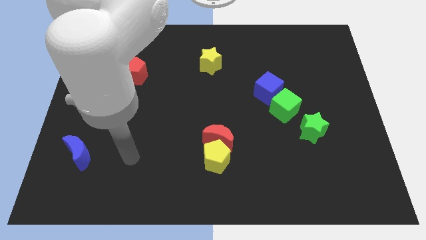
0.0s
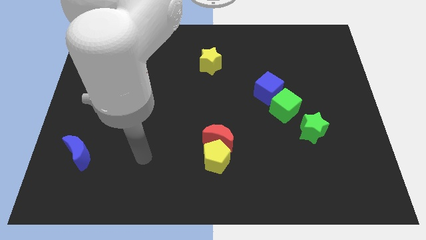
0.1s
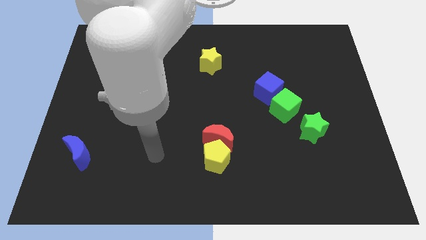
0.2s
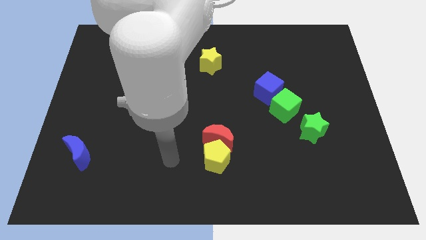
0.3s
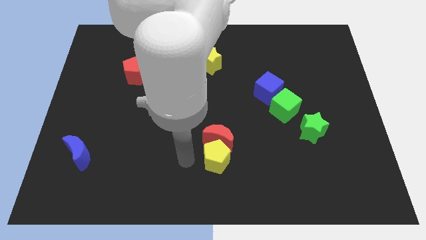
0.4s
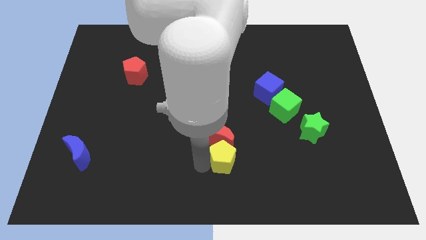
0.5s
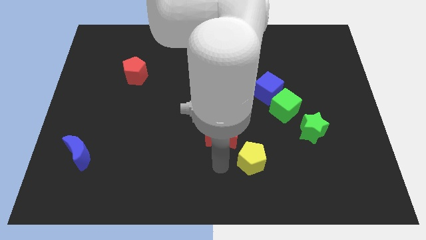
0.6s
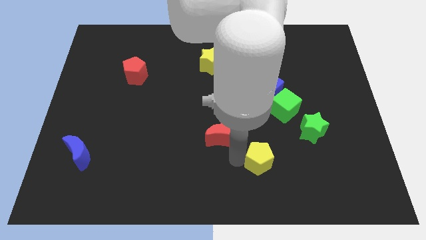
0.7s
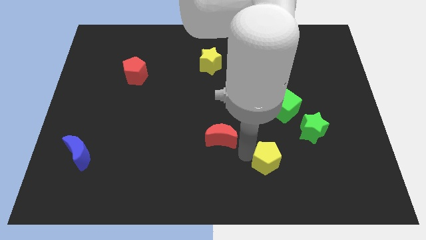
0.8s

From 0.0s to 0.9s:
separate the red moon from the yellow pentagon

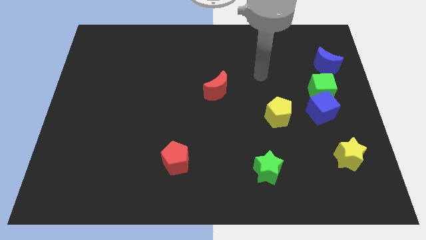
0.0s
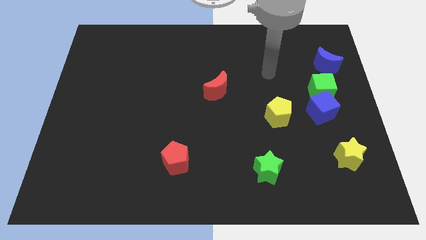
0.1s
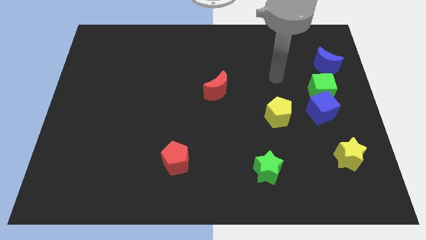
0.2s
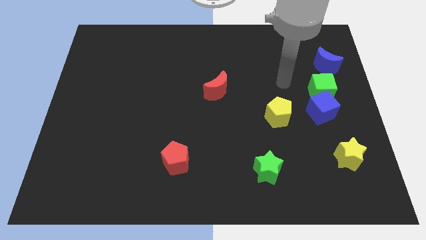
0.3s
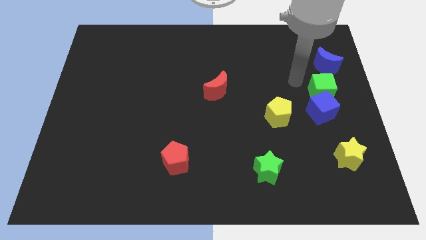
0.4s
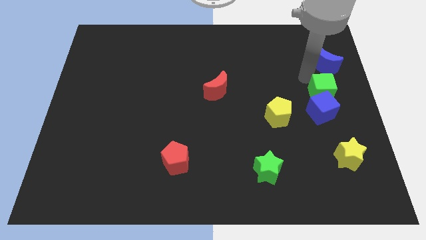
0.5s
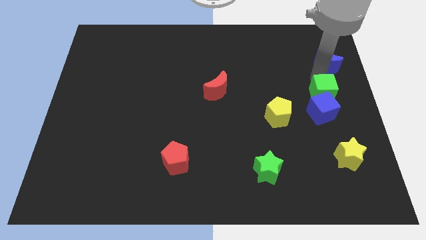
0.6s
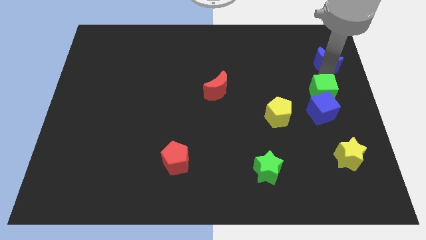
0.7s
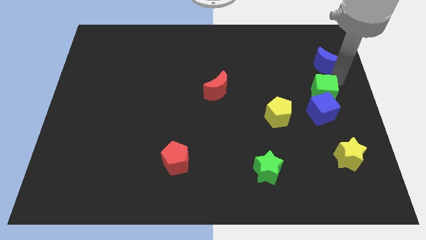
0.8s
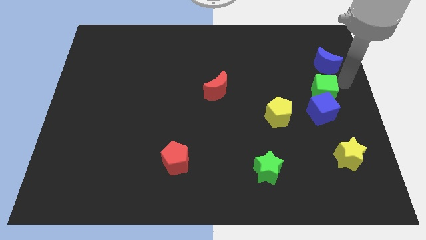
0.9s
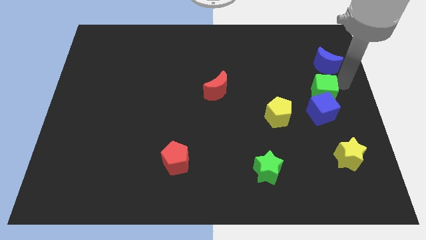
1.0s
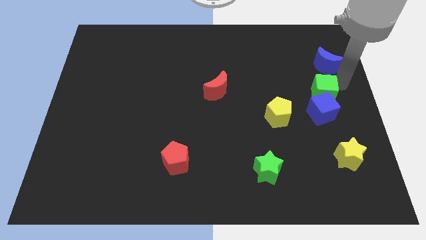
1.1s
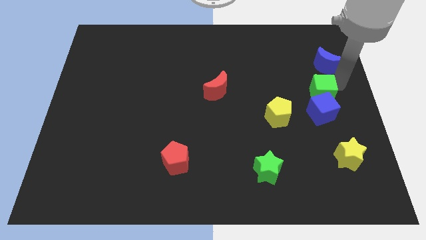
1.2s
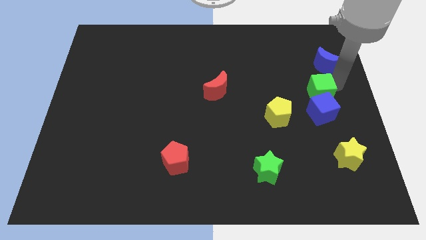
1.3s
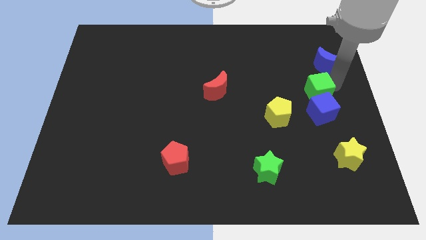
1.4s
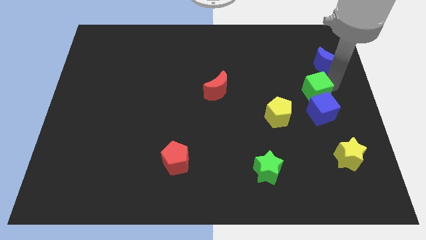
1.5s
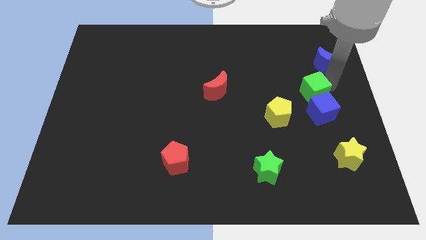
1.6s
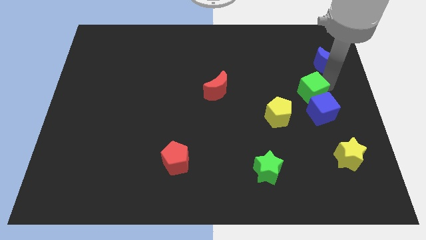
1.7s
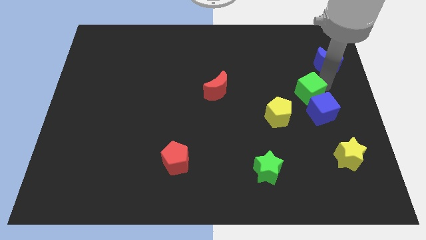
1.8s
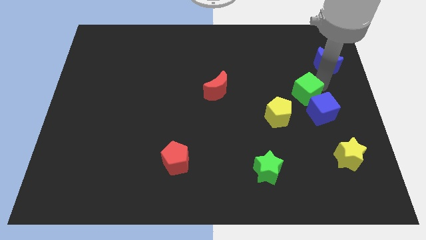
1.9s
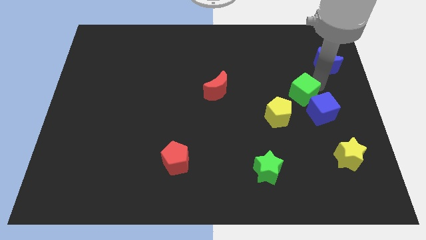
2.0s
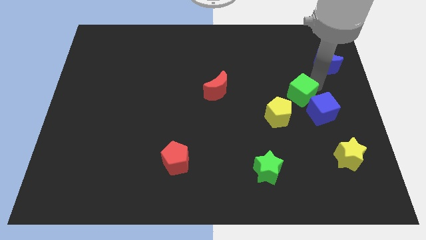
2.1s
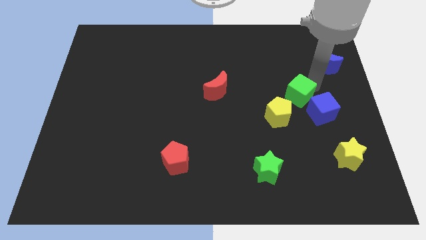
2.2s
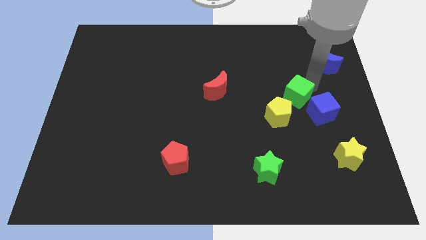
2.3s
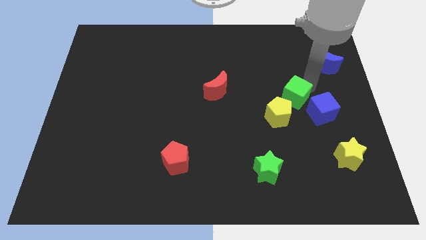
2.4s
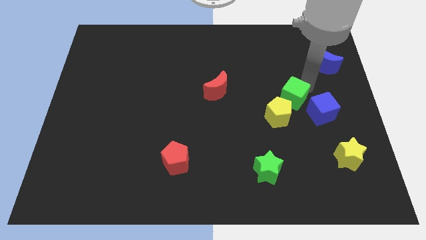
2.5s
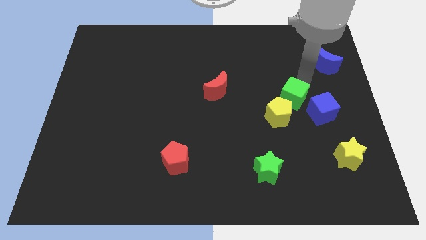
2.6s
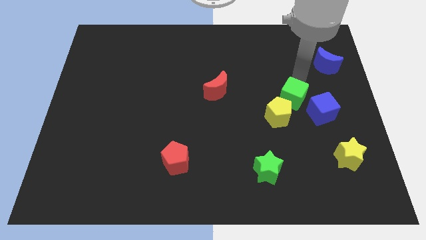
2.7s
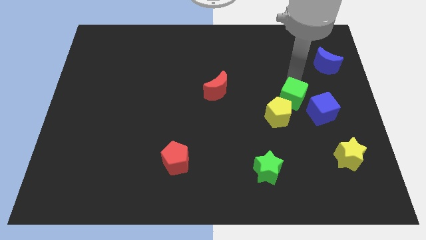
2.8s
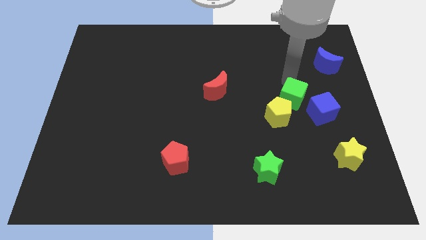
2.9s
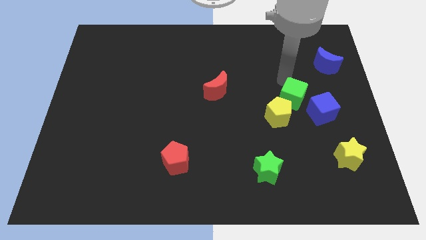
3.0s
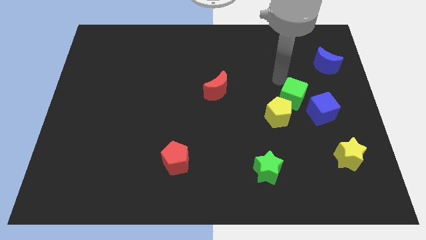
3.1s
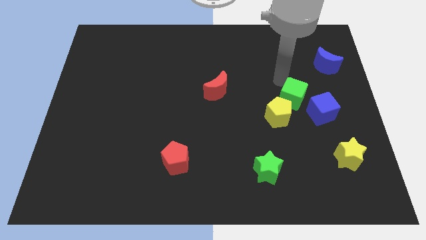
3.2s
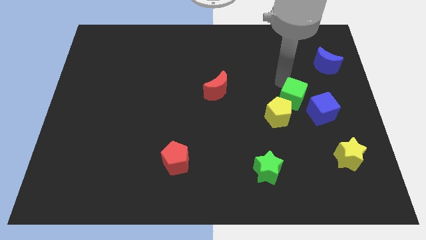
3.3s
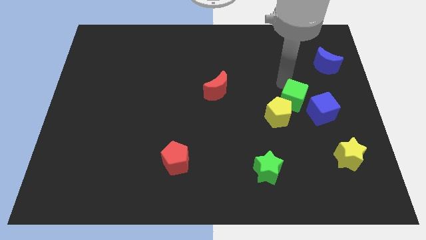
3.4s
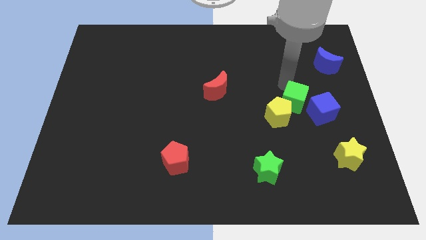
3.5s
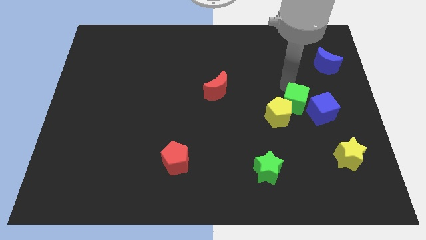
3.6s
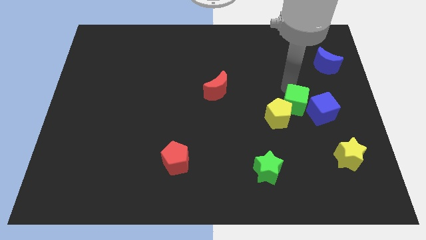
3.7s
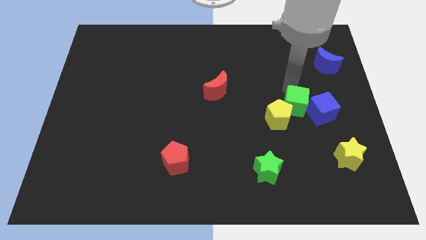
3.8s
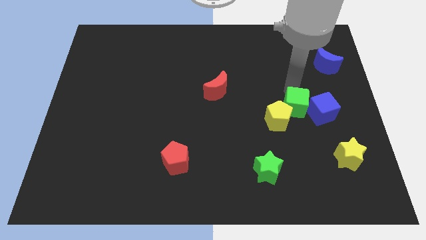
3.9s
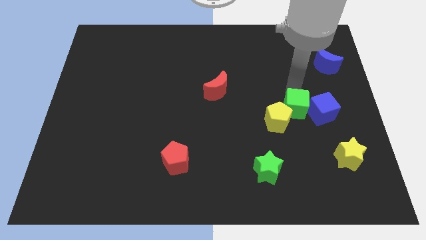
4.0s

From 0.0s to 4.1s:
move the green cube away from the blue cube and blue moon

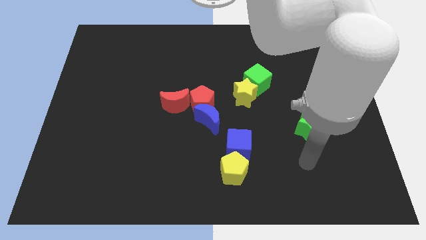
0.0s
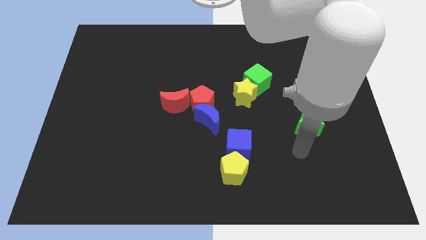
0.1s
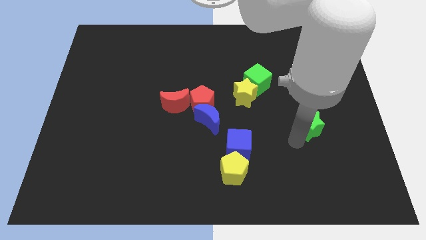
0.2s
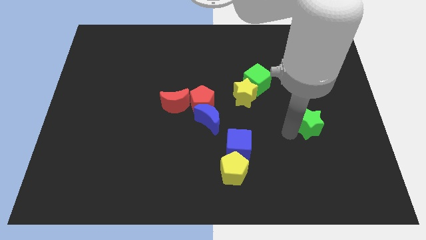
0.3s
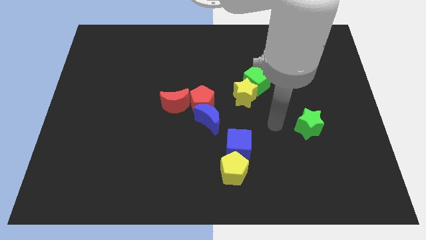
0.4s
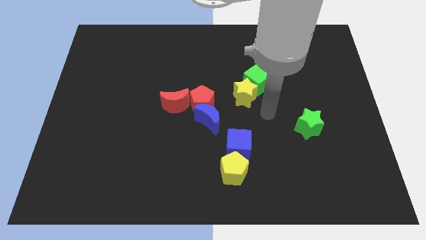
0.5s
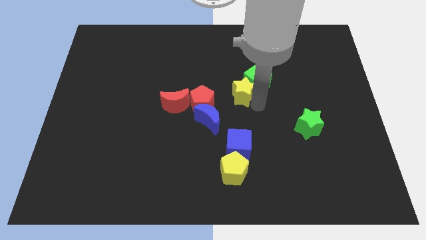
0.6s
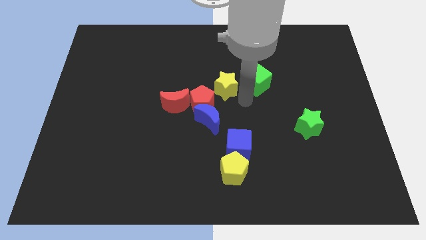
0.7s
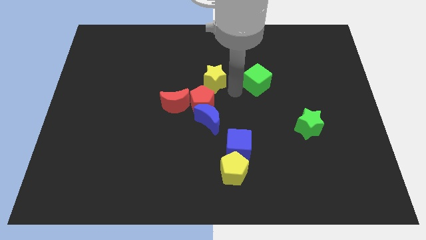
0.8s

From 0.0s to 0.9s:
separate the green cube from the yellow star

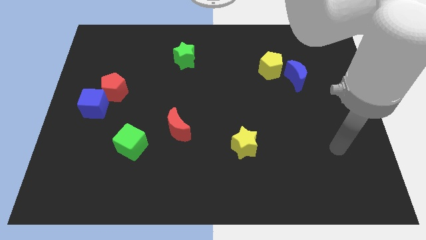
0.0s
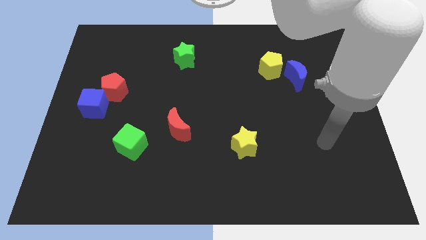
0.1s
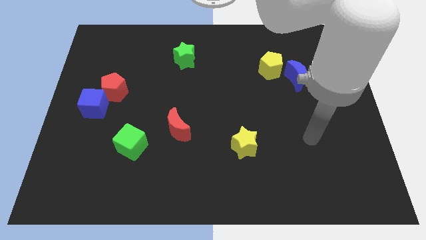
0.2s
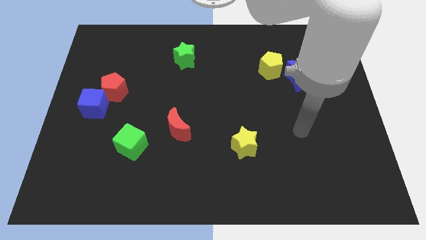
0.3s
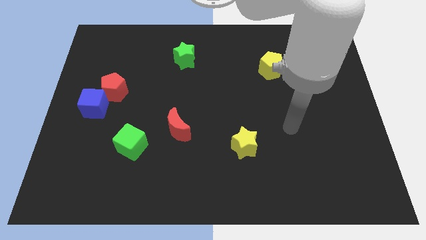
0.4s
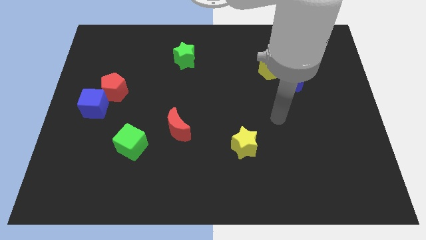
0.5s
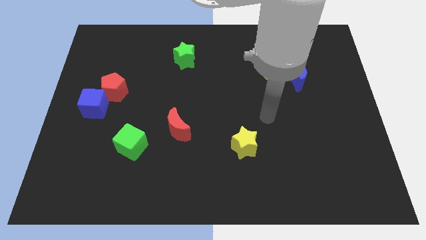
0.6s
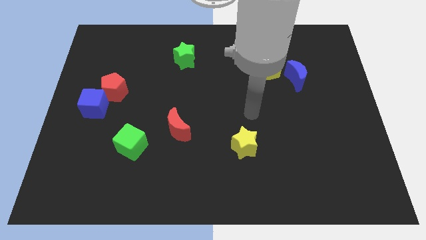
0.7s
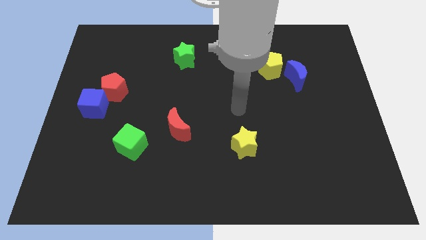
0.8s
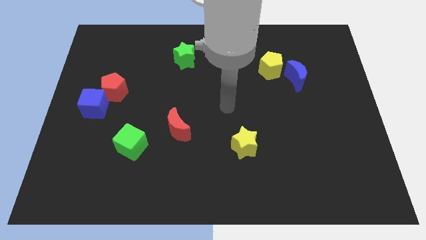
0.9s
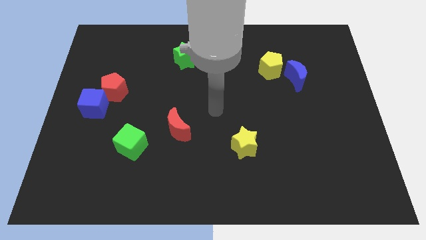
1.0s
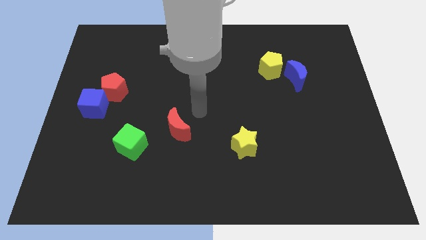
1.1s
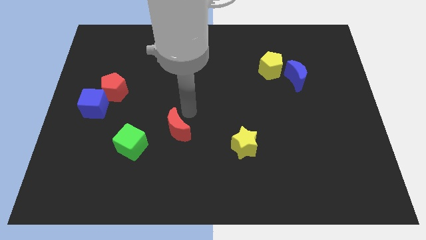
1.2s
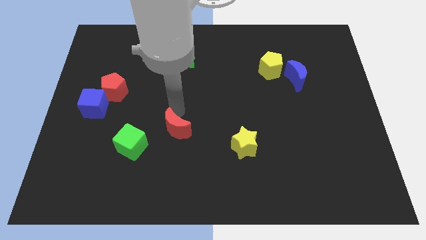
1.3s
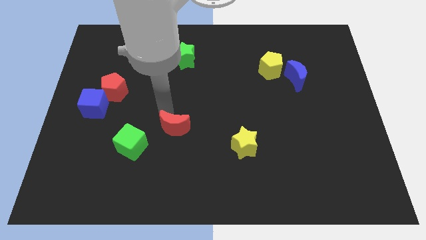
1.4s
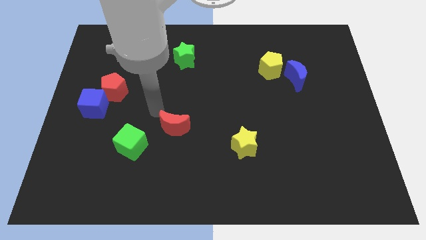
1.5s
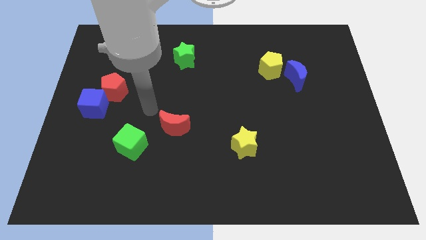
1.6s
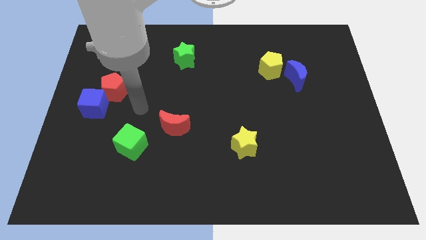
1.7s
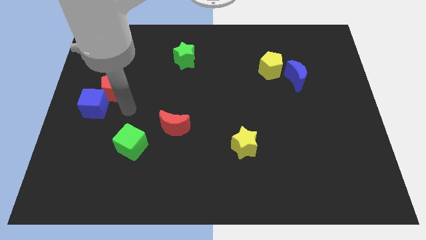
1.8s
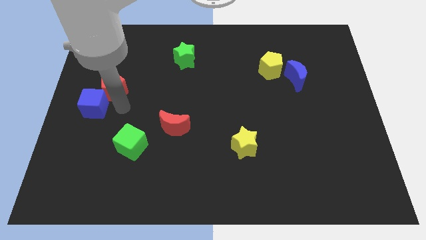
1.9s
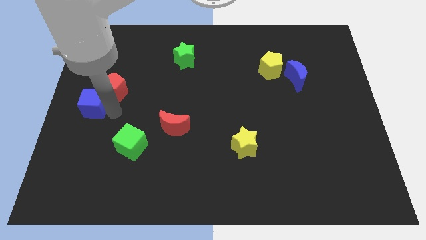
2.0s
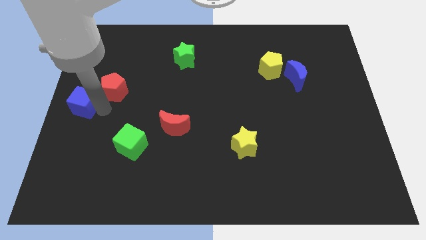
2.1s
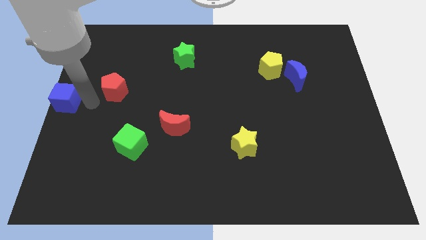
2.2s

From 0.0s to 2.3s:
move the red pentagon away from the blue cube

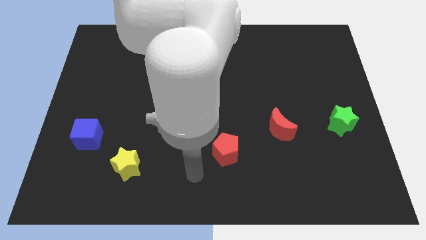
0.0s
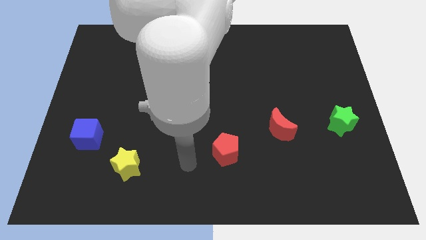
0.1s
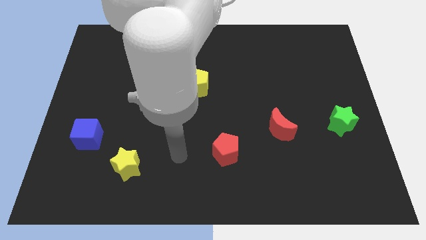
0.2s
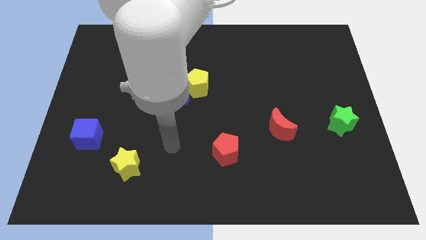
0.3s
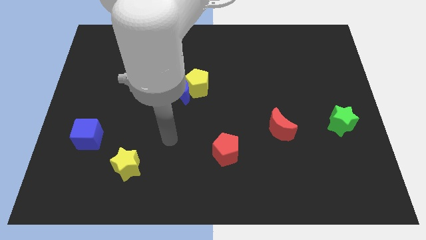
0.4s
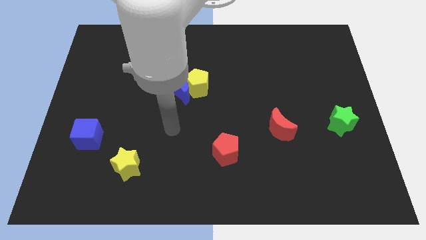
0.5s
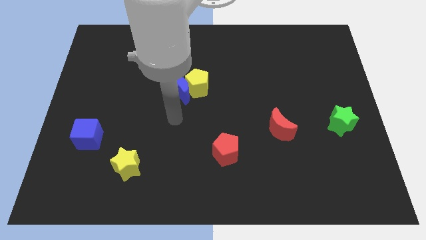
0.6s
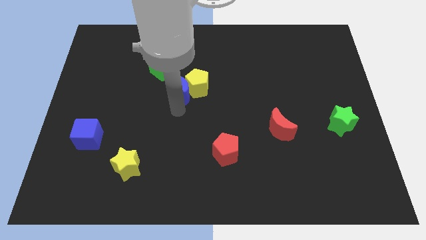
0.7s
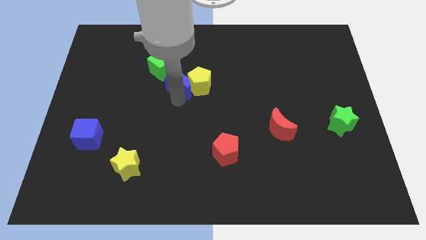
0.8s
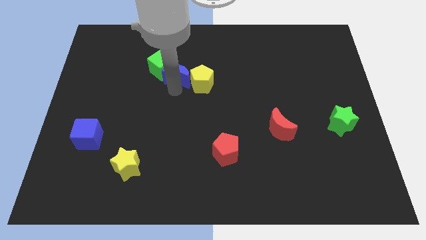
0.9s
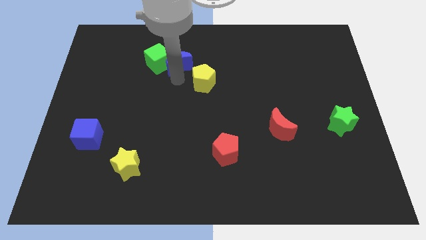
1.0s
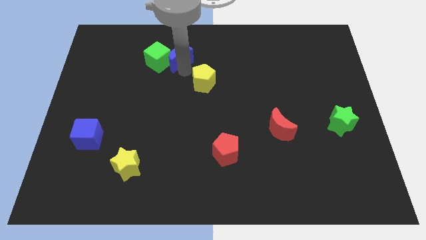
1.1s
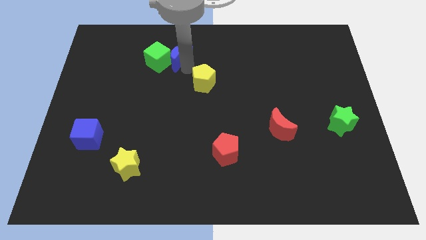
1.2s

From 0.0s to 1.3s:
separate the yellow pentagon from the blue moon

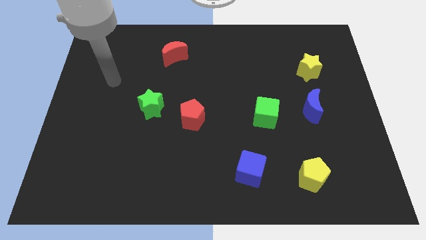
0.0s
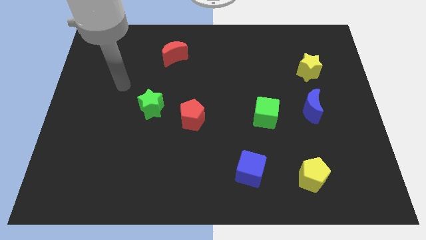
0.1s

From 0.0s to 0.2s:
move the red pentagon away from the green star
